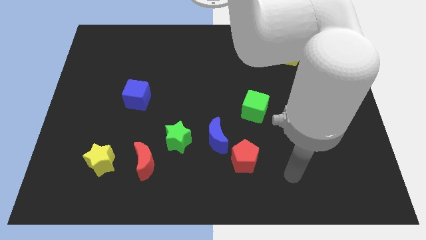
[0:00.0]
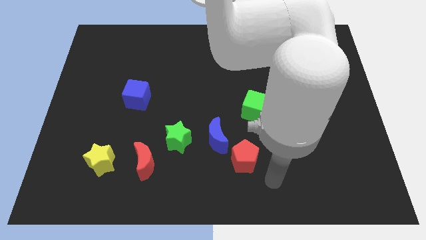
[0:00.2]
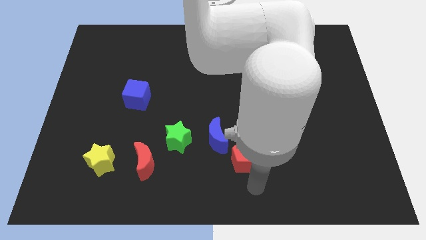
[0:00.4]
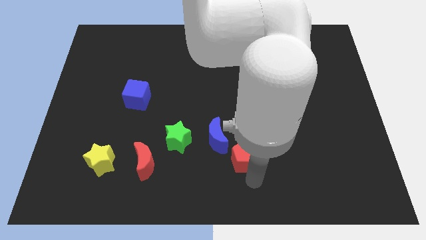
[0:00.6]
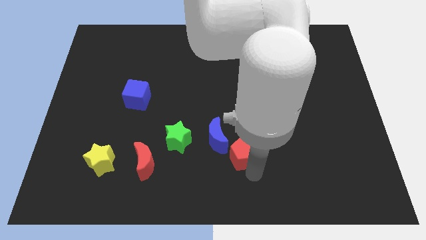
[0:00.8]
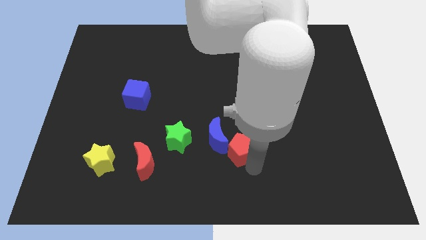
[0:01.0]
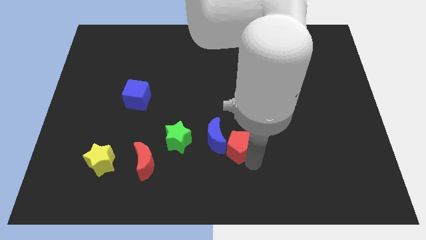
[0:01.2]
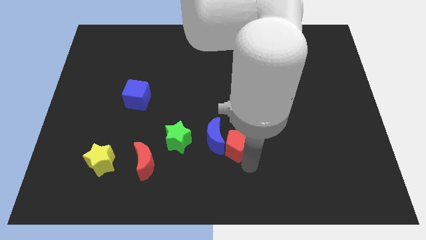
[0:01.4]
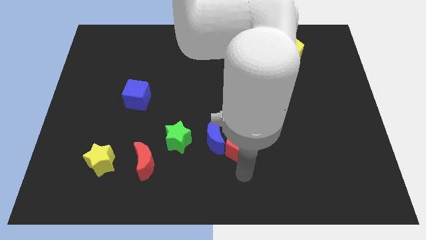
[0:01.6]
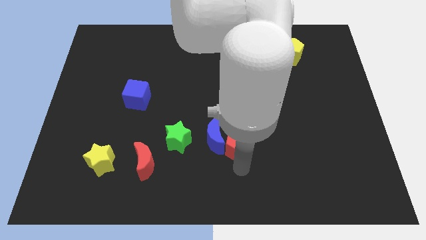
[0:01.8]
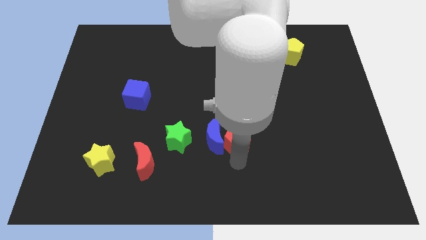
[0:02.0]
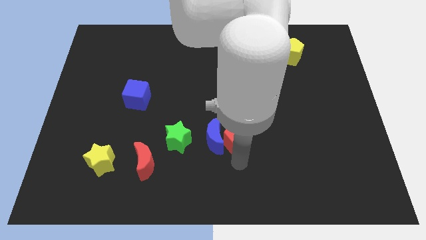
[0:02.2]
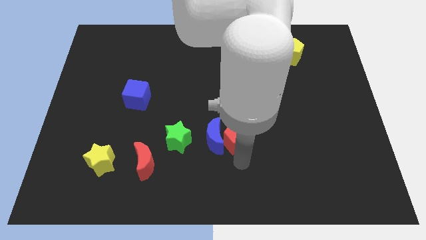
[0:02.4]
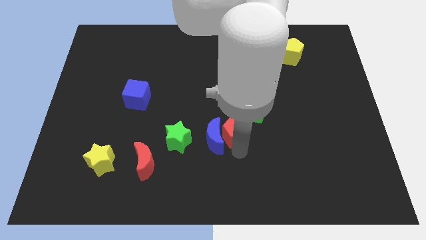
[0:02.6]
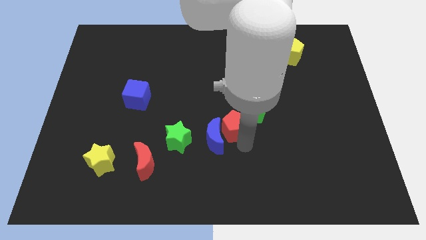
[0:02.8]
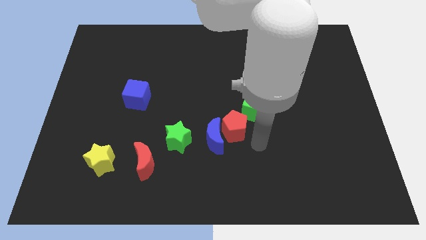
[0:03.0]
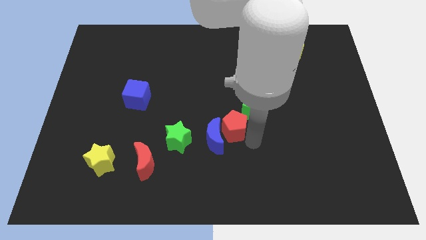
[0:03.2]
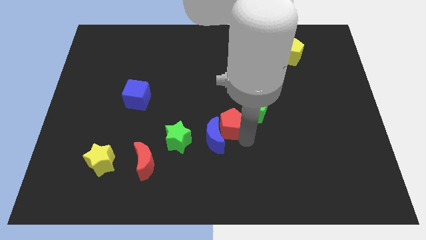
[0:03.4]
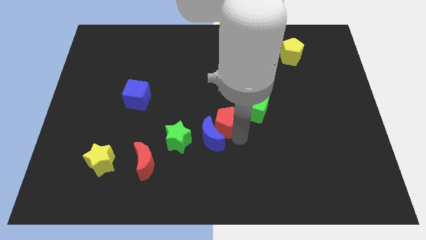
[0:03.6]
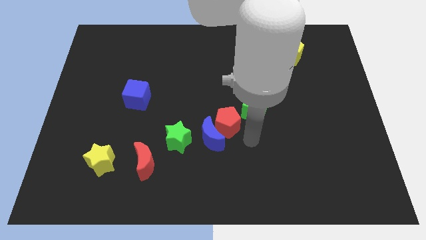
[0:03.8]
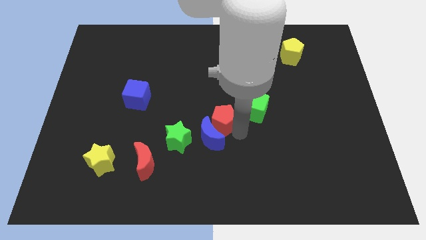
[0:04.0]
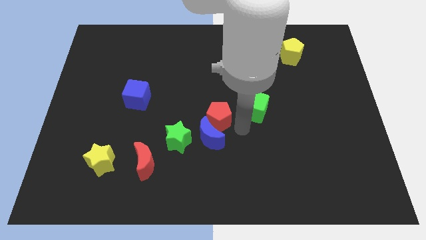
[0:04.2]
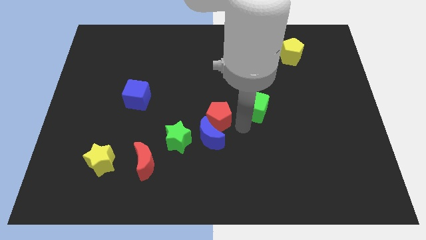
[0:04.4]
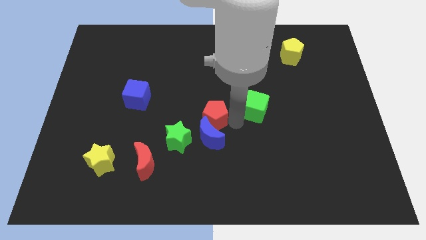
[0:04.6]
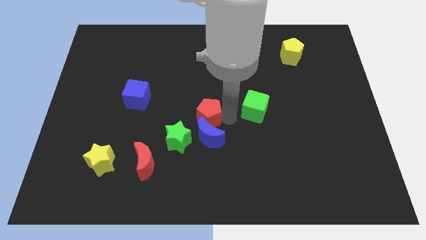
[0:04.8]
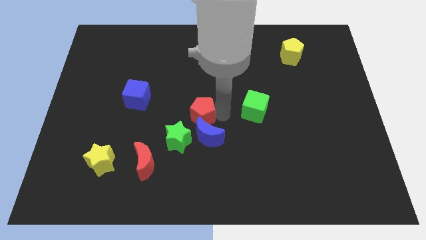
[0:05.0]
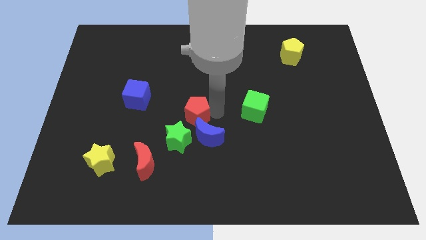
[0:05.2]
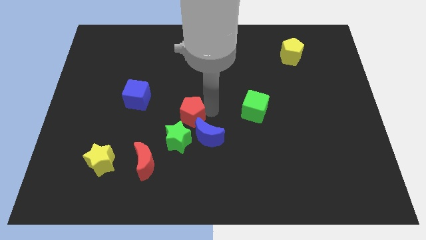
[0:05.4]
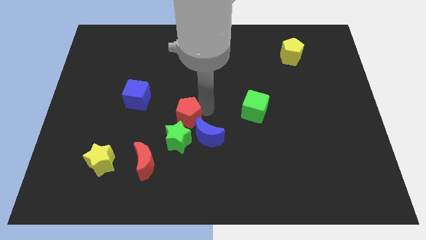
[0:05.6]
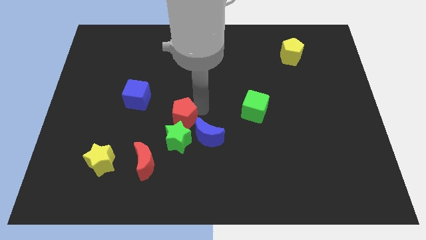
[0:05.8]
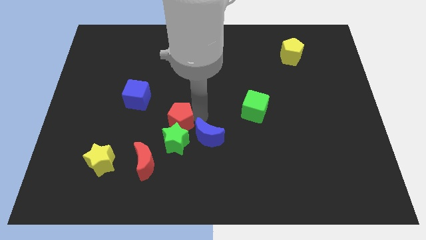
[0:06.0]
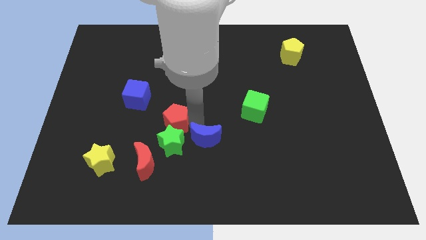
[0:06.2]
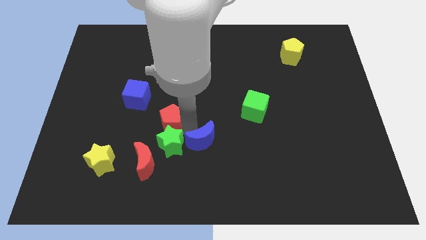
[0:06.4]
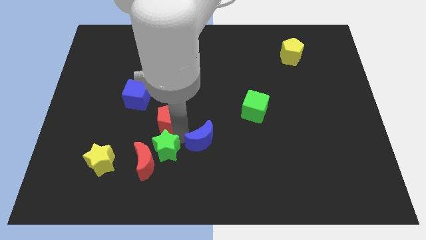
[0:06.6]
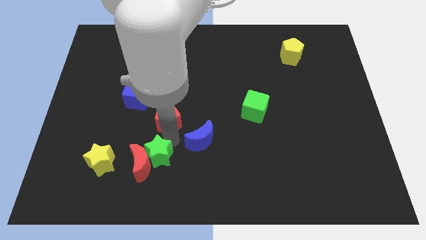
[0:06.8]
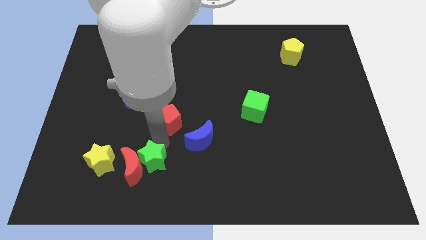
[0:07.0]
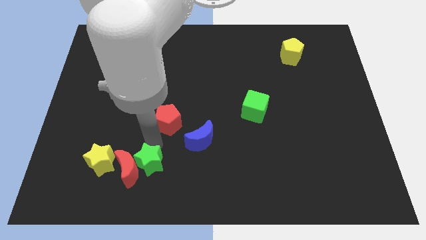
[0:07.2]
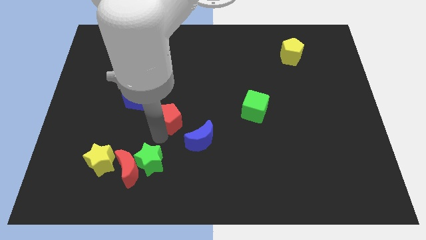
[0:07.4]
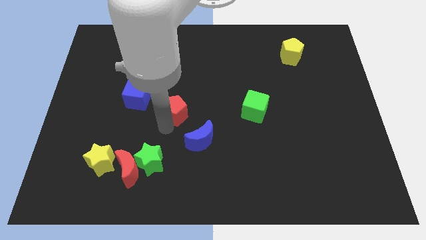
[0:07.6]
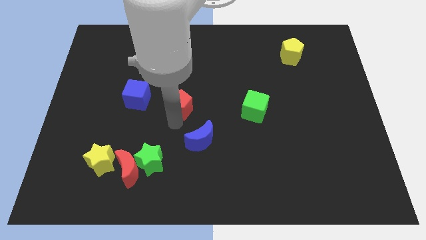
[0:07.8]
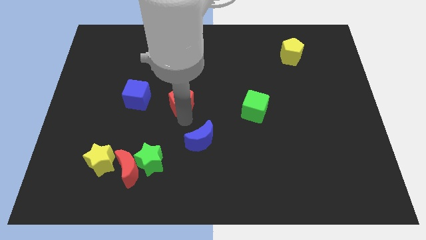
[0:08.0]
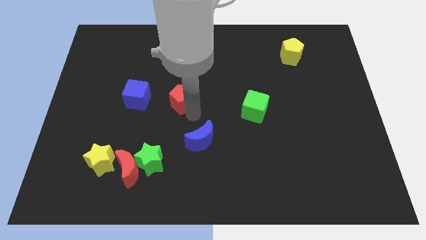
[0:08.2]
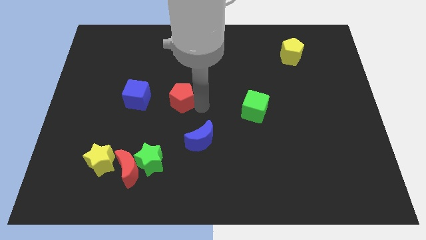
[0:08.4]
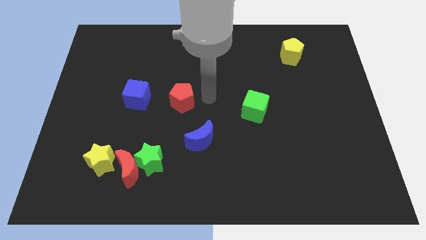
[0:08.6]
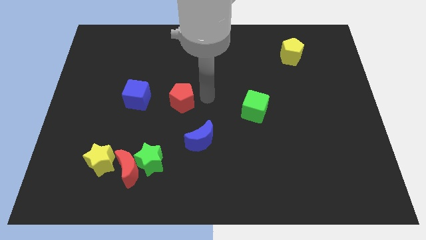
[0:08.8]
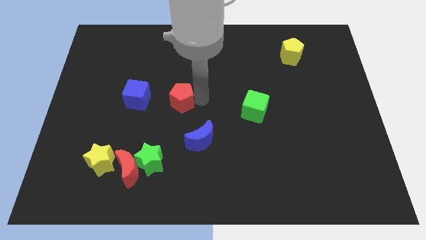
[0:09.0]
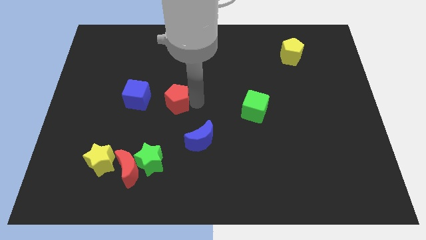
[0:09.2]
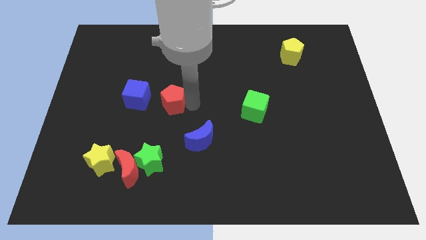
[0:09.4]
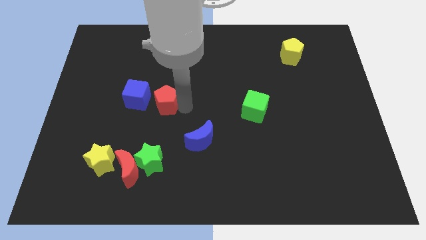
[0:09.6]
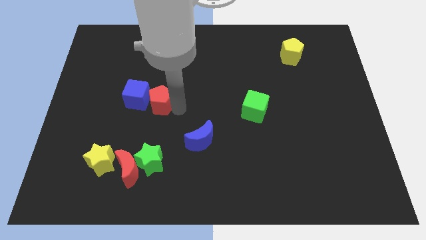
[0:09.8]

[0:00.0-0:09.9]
slide the red pentagon to the blue cube

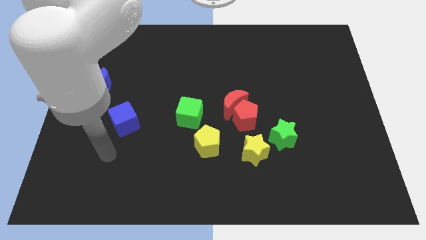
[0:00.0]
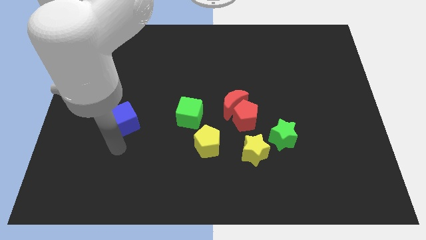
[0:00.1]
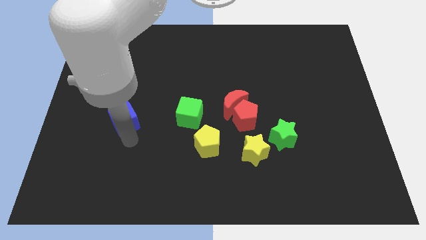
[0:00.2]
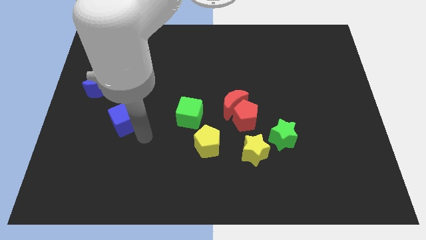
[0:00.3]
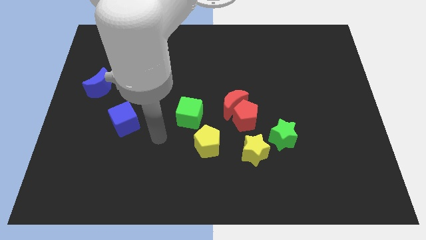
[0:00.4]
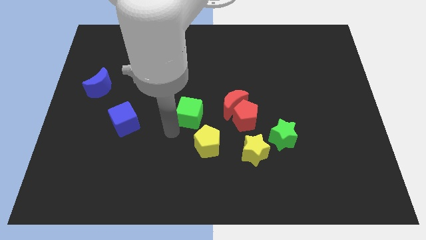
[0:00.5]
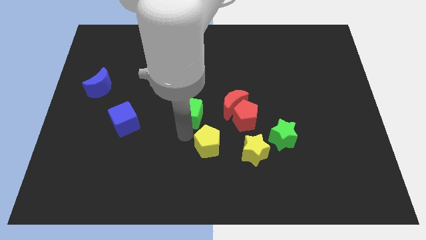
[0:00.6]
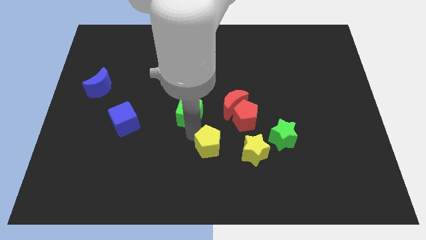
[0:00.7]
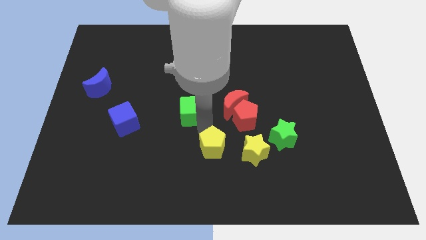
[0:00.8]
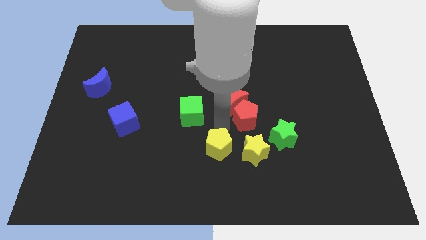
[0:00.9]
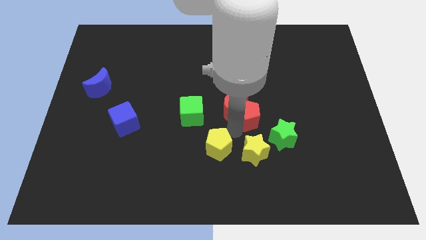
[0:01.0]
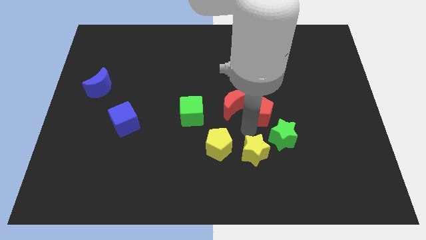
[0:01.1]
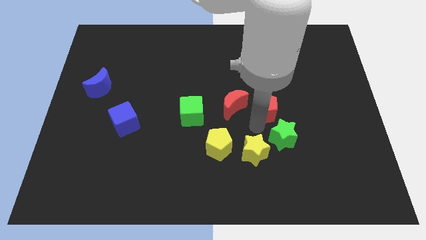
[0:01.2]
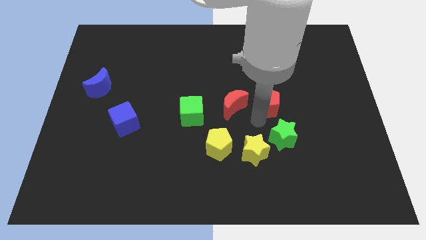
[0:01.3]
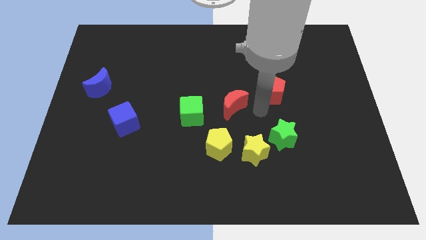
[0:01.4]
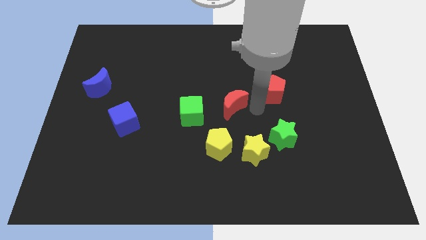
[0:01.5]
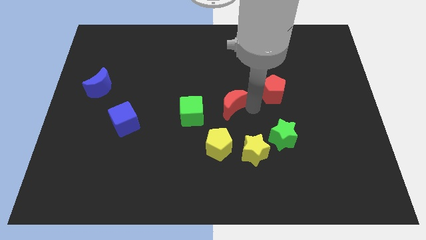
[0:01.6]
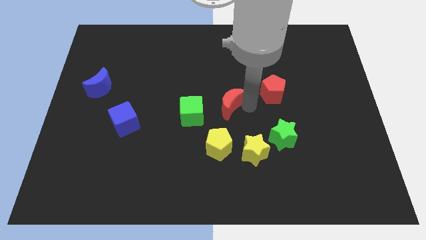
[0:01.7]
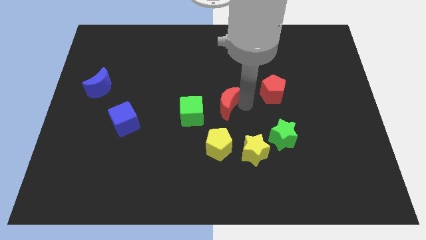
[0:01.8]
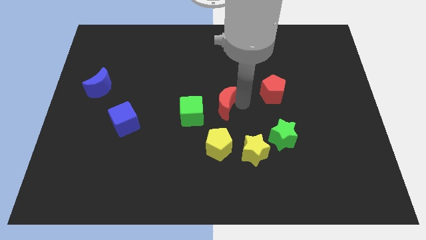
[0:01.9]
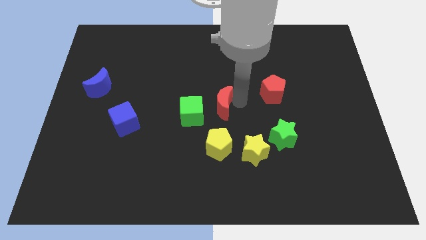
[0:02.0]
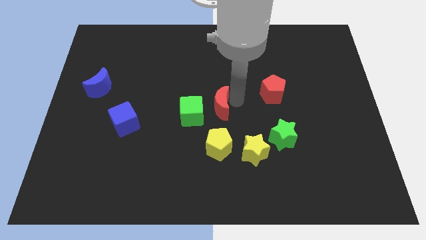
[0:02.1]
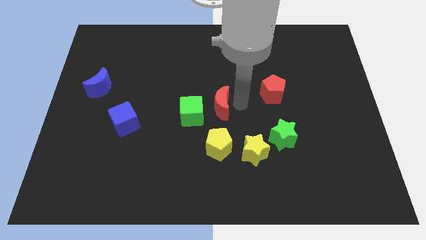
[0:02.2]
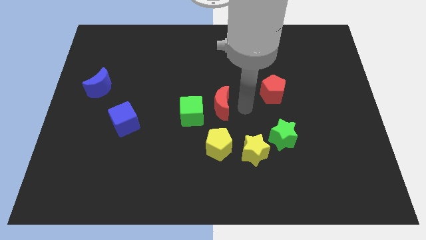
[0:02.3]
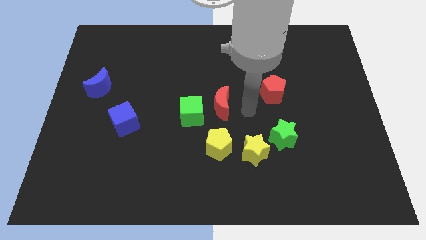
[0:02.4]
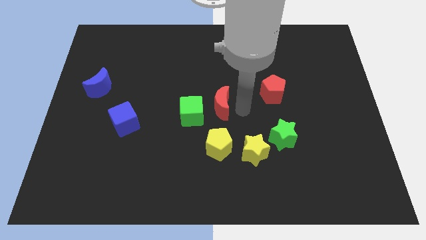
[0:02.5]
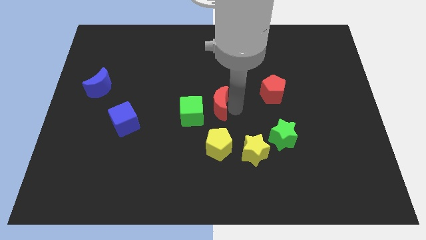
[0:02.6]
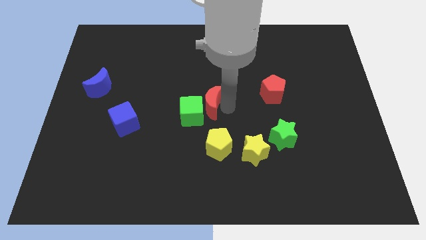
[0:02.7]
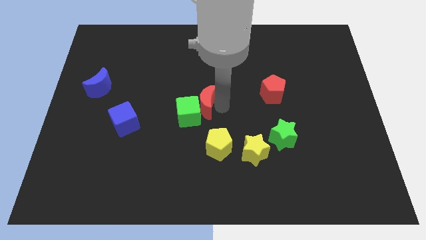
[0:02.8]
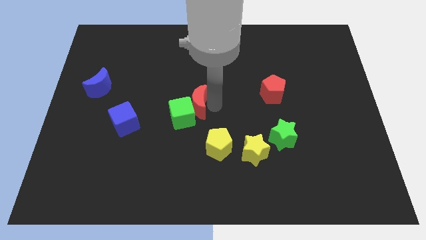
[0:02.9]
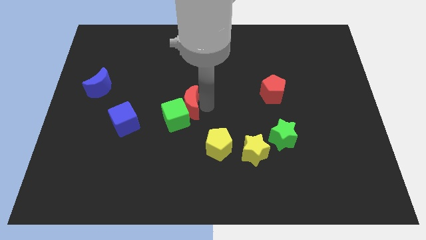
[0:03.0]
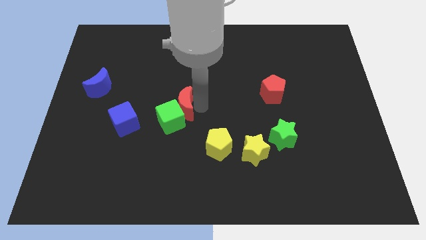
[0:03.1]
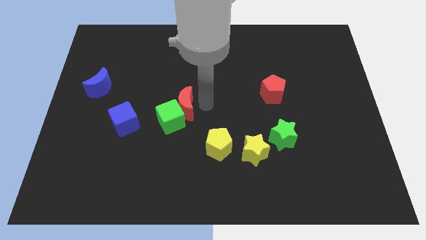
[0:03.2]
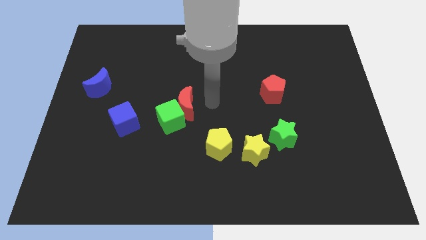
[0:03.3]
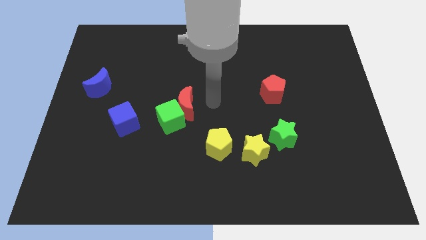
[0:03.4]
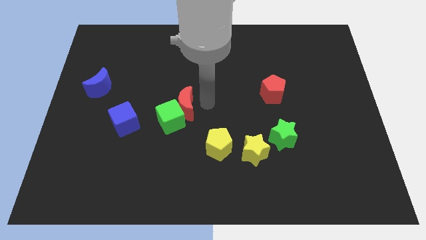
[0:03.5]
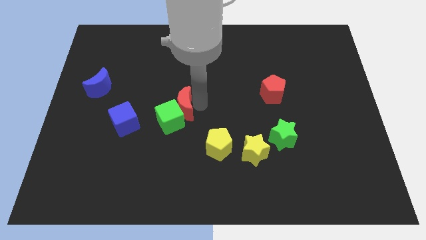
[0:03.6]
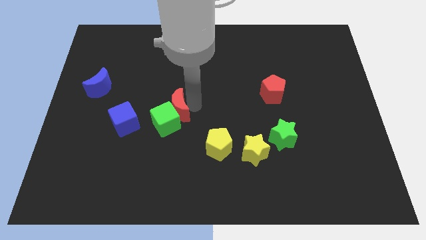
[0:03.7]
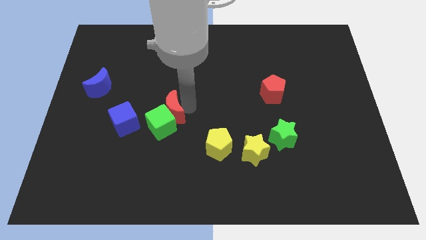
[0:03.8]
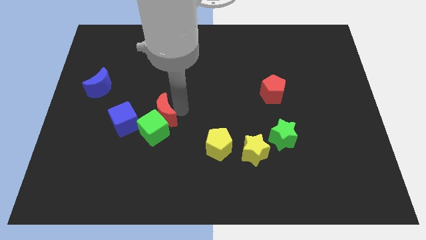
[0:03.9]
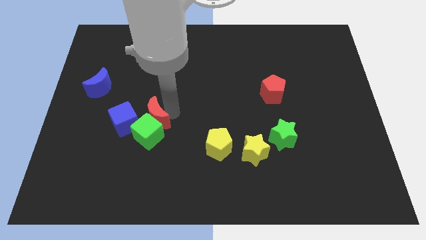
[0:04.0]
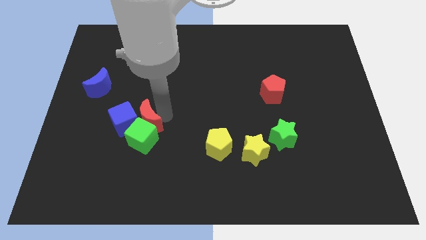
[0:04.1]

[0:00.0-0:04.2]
slide the red moon to the blue cube
